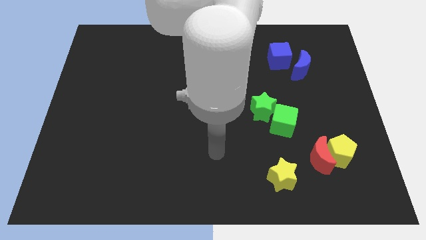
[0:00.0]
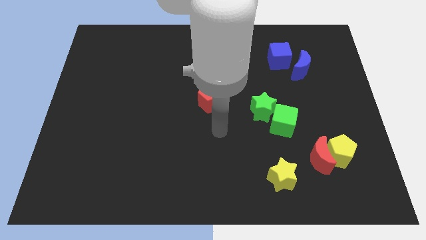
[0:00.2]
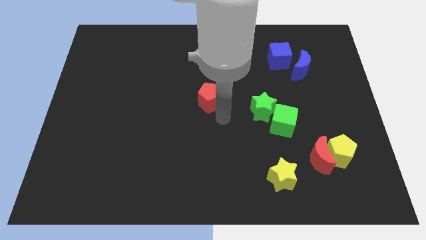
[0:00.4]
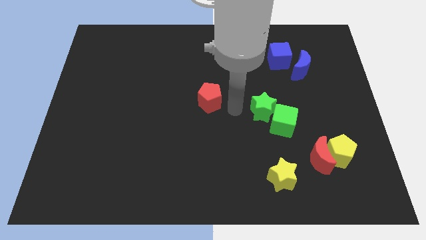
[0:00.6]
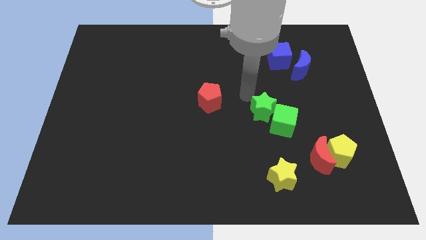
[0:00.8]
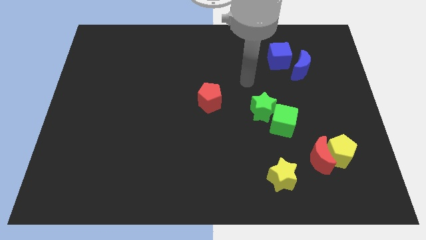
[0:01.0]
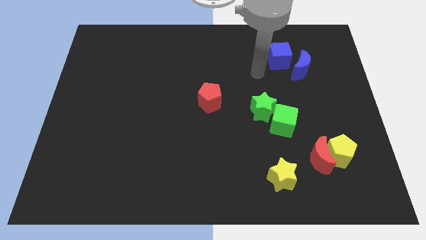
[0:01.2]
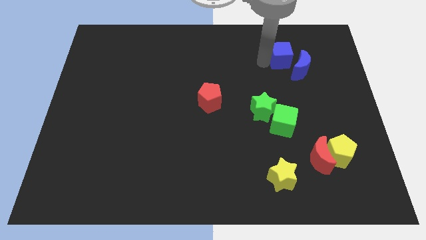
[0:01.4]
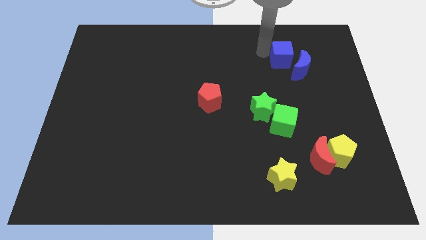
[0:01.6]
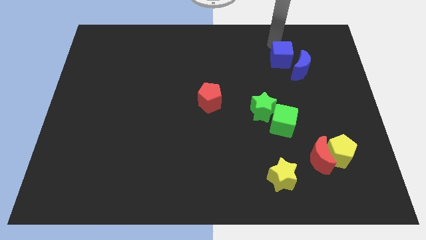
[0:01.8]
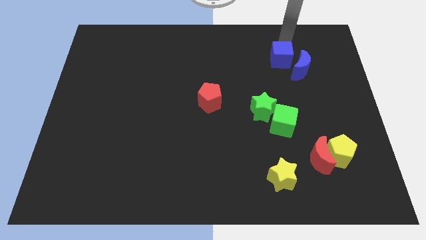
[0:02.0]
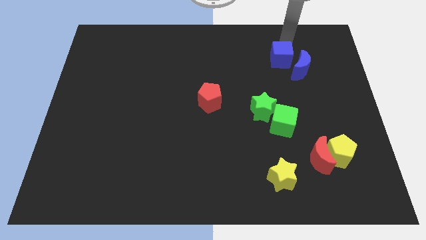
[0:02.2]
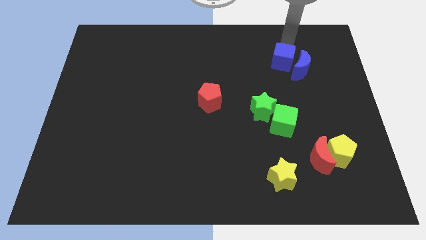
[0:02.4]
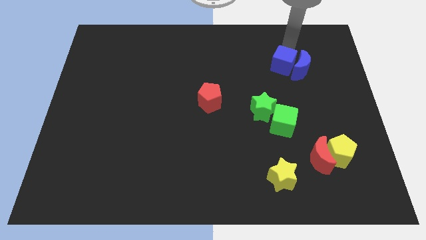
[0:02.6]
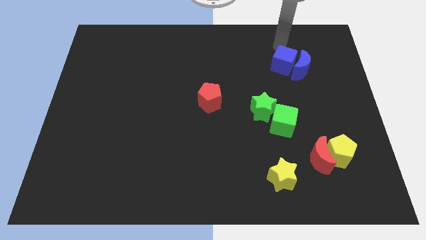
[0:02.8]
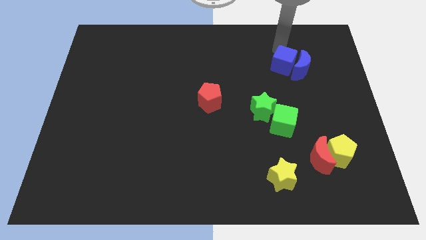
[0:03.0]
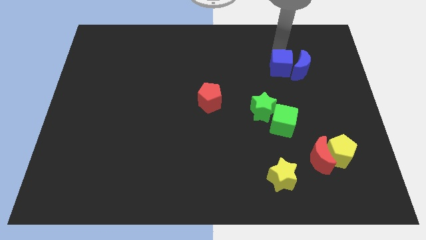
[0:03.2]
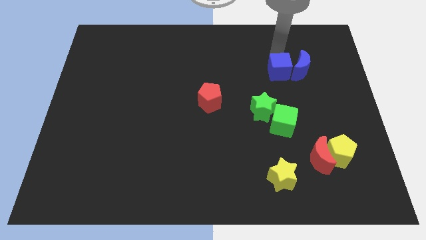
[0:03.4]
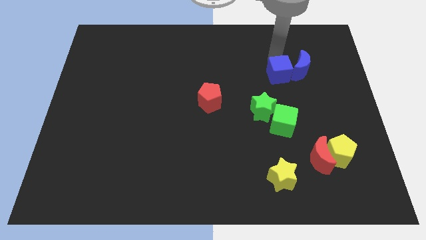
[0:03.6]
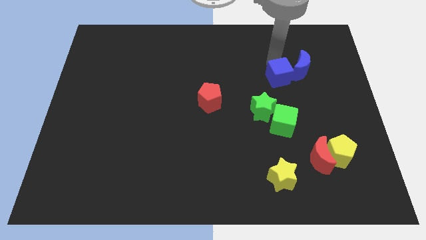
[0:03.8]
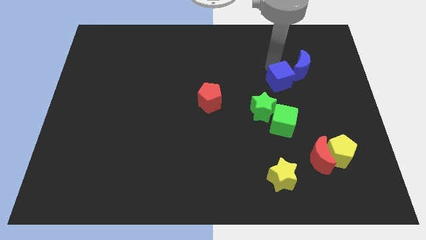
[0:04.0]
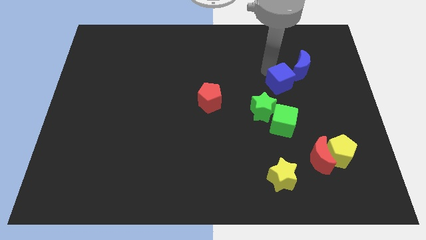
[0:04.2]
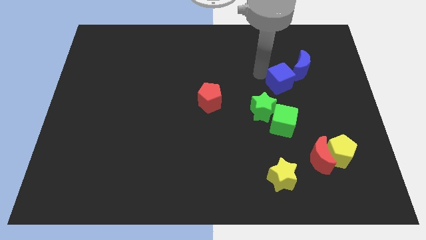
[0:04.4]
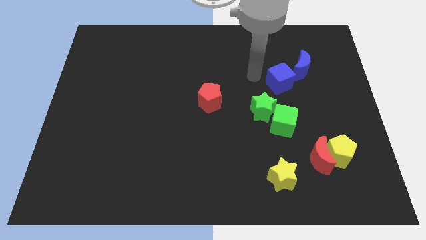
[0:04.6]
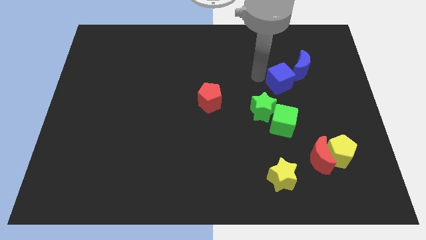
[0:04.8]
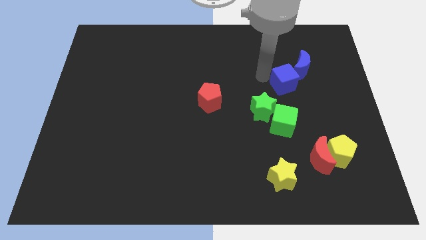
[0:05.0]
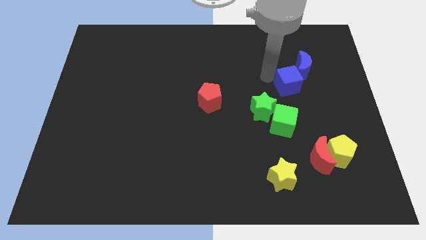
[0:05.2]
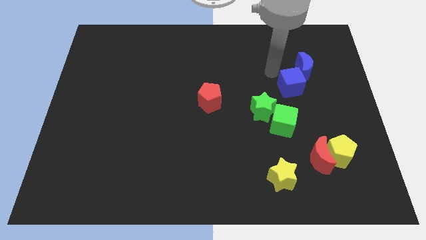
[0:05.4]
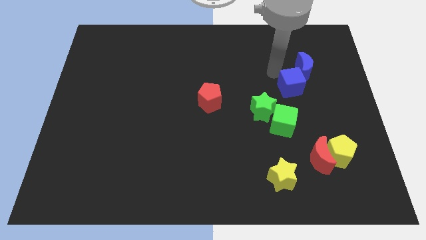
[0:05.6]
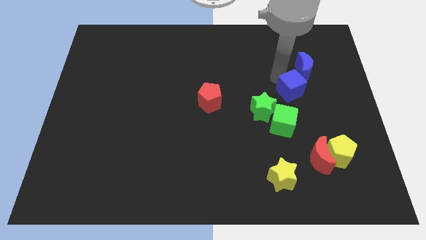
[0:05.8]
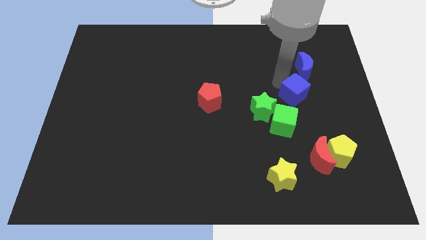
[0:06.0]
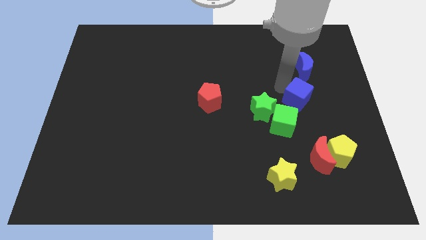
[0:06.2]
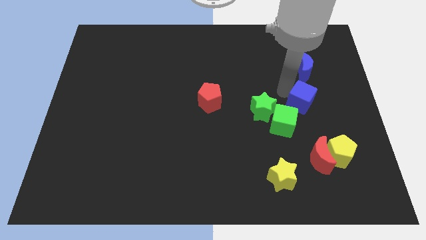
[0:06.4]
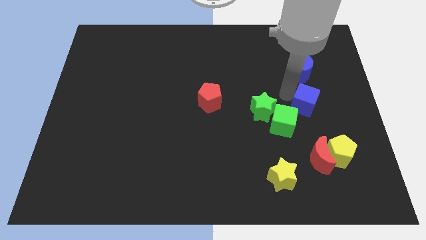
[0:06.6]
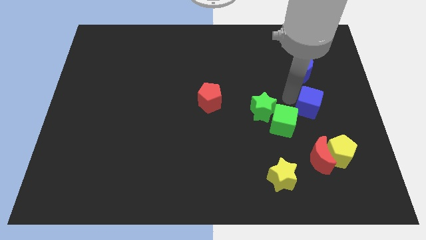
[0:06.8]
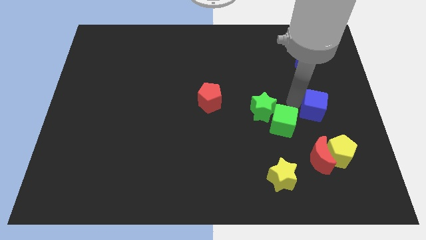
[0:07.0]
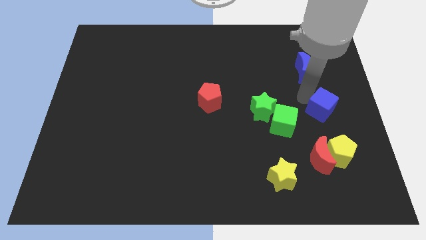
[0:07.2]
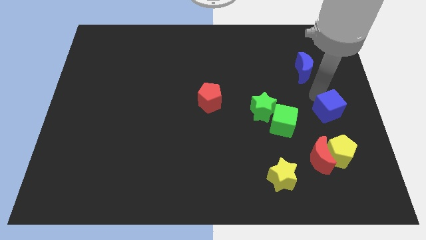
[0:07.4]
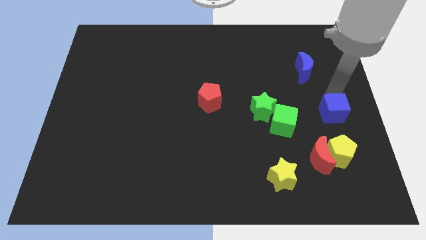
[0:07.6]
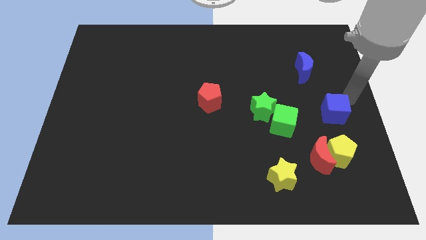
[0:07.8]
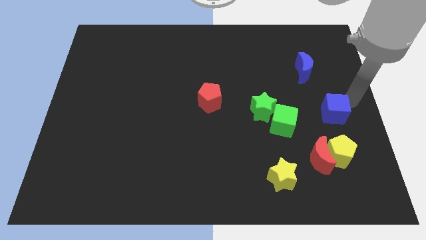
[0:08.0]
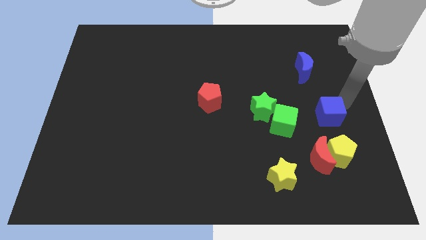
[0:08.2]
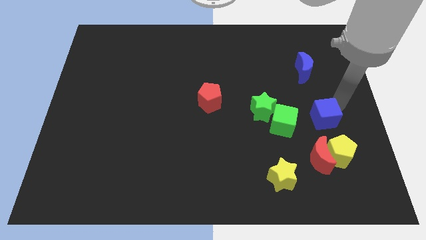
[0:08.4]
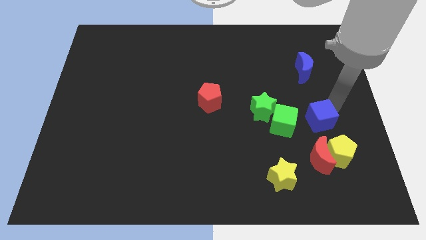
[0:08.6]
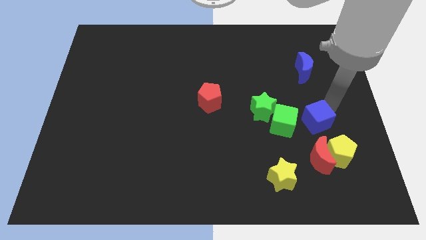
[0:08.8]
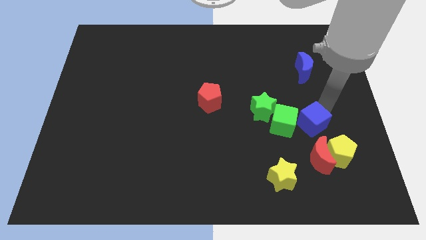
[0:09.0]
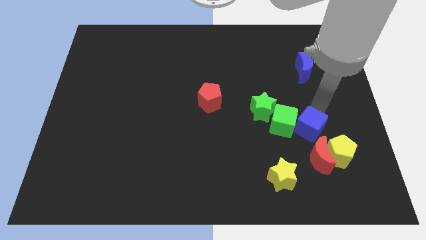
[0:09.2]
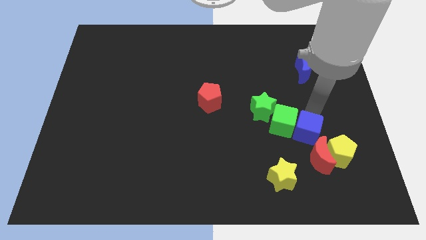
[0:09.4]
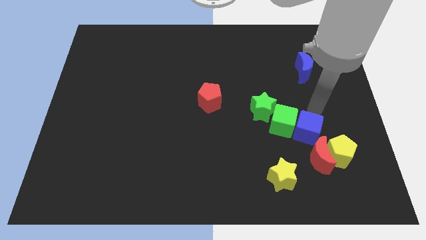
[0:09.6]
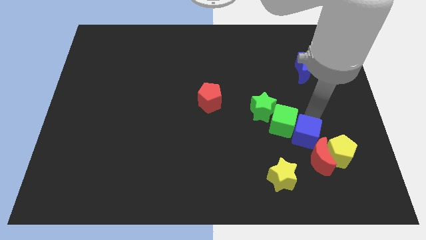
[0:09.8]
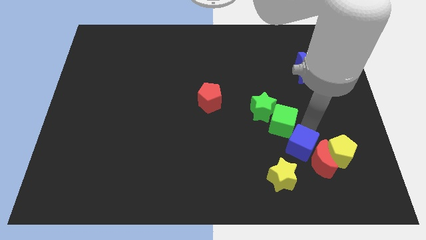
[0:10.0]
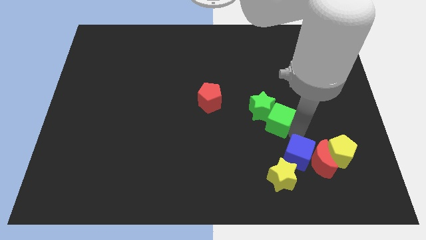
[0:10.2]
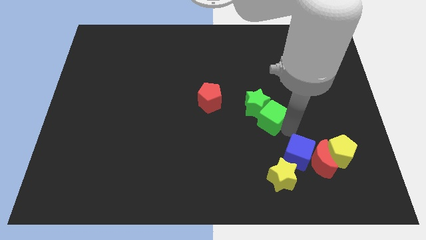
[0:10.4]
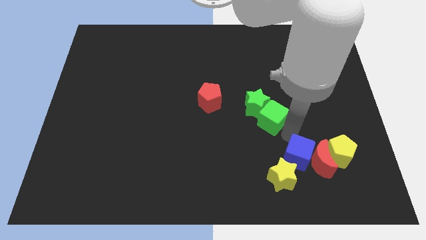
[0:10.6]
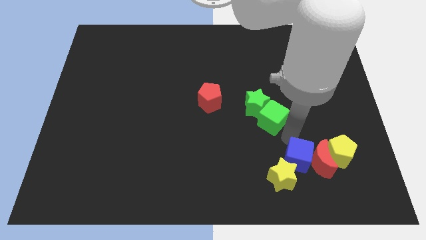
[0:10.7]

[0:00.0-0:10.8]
push the blue cube to the right side of the yellow star

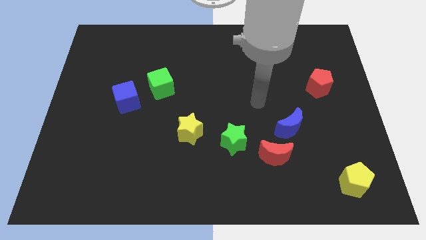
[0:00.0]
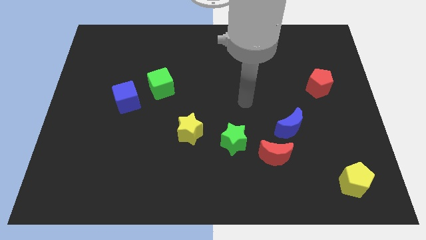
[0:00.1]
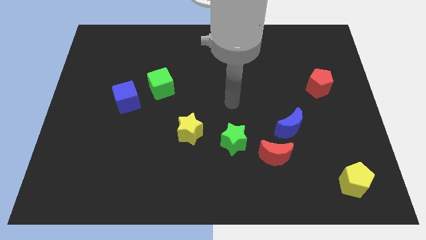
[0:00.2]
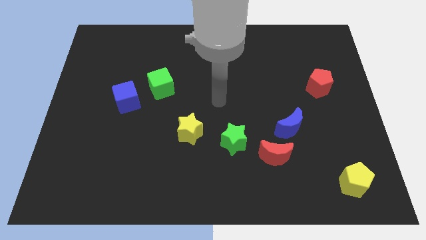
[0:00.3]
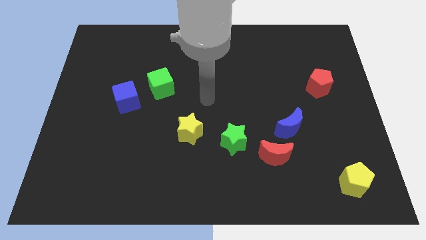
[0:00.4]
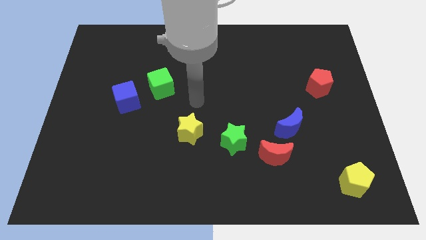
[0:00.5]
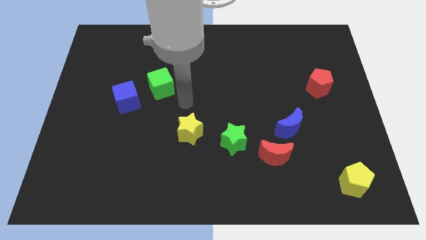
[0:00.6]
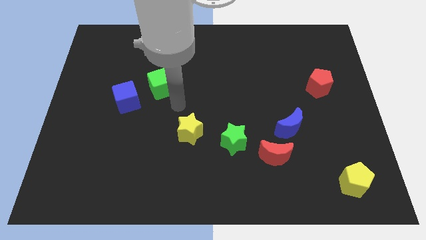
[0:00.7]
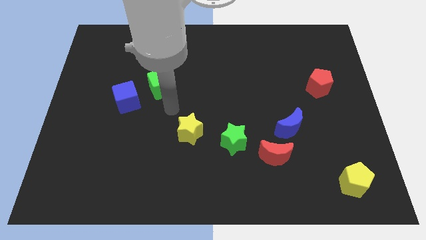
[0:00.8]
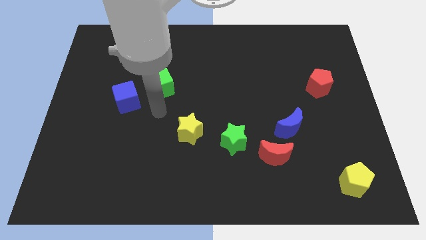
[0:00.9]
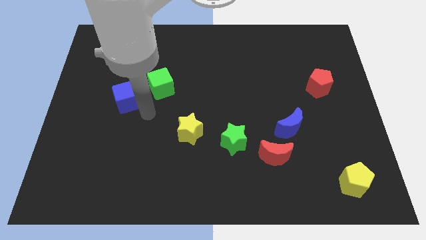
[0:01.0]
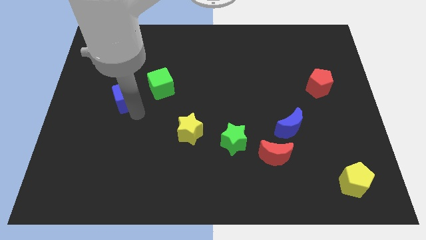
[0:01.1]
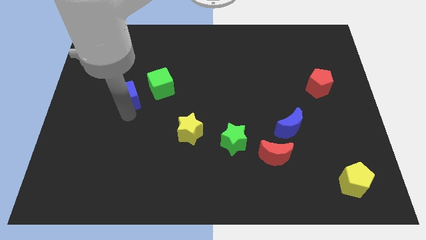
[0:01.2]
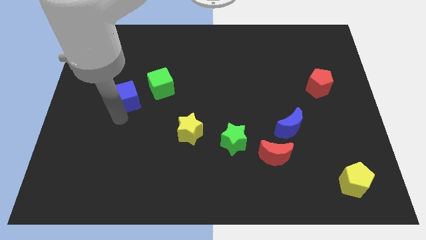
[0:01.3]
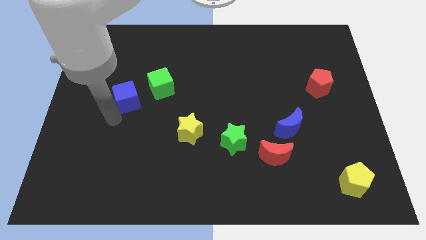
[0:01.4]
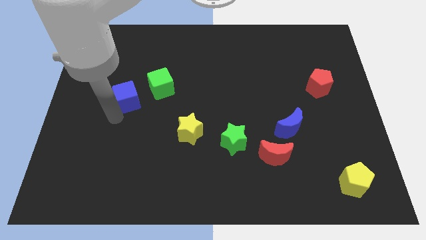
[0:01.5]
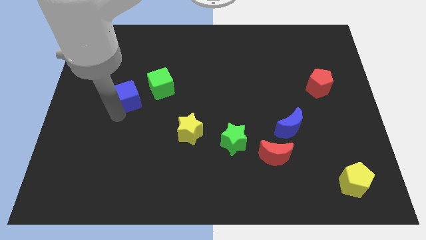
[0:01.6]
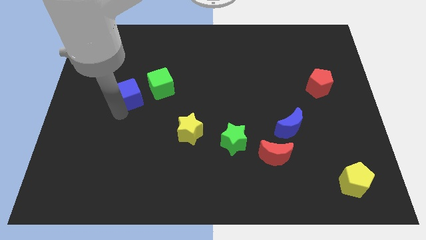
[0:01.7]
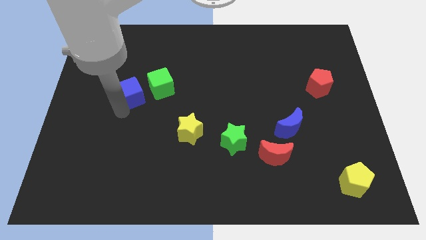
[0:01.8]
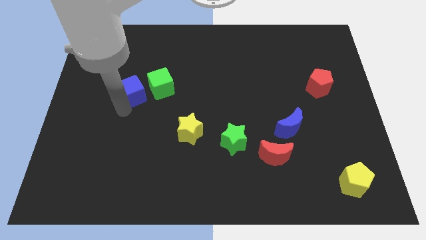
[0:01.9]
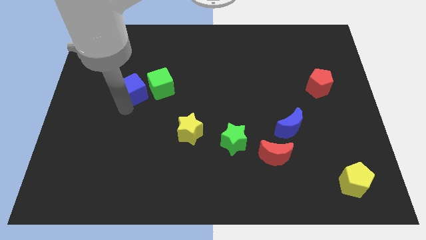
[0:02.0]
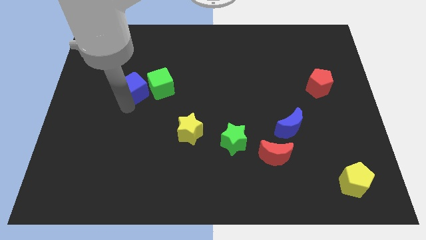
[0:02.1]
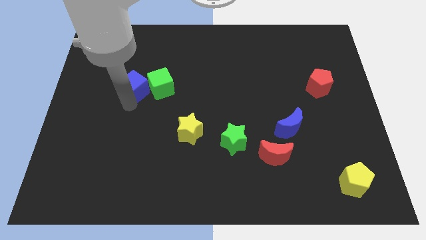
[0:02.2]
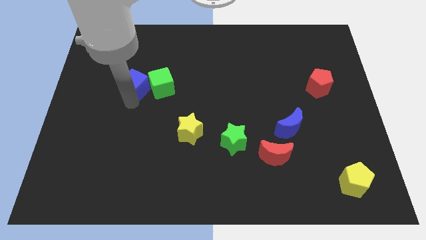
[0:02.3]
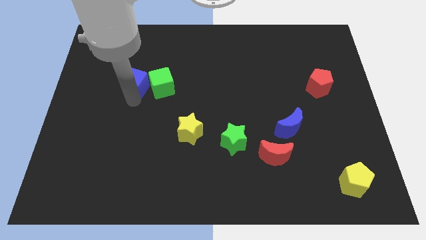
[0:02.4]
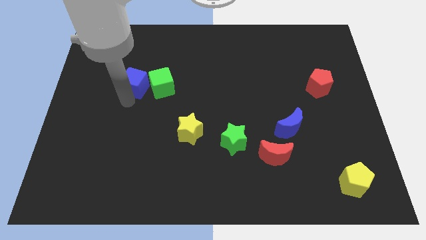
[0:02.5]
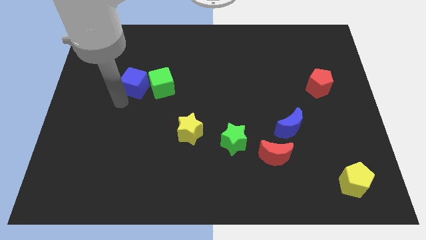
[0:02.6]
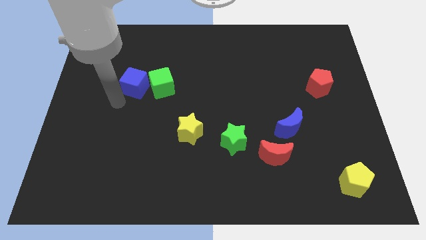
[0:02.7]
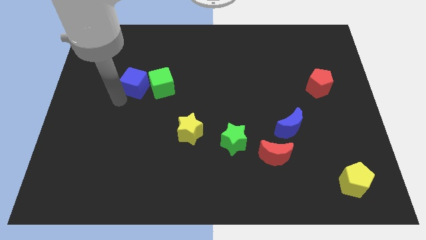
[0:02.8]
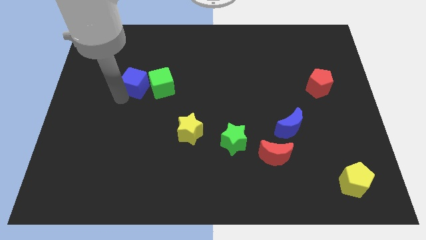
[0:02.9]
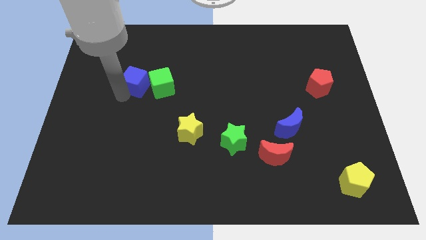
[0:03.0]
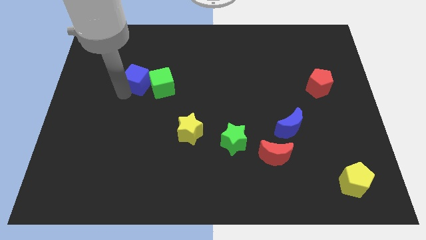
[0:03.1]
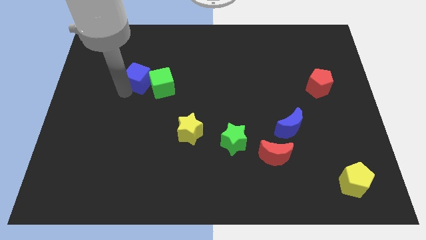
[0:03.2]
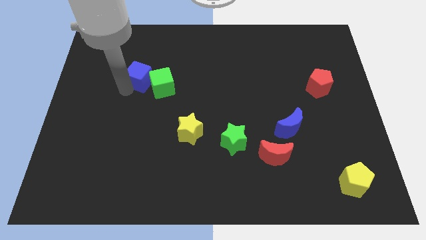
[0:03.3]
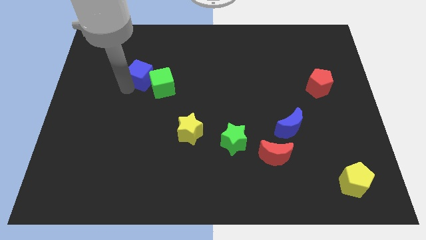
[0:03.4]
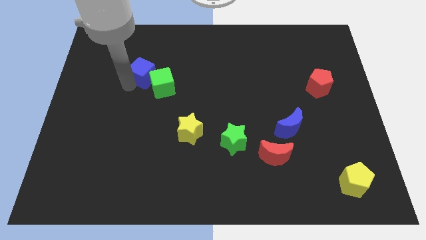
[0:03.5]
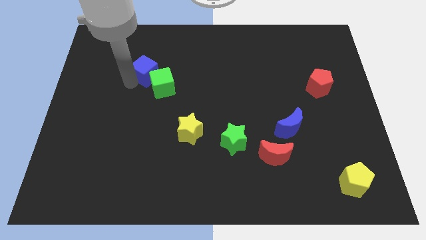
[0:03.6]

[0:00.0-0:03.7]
move the blue cube above the green cube
